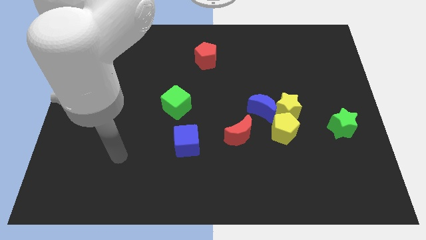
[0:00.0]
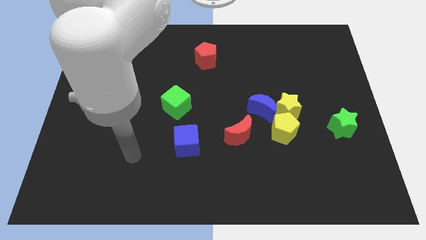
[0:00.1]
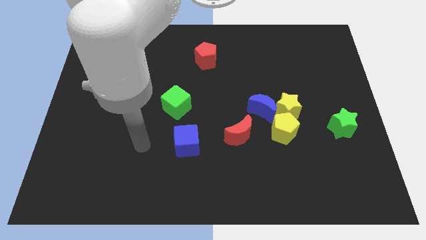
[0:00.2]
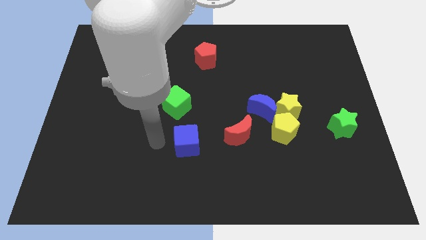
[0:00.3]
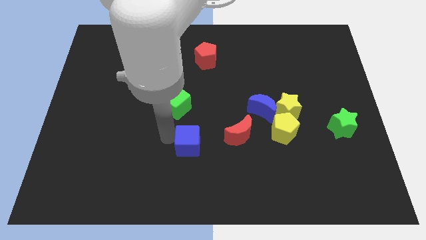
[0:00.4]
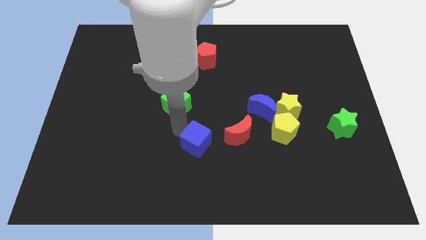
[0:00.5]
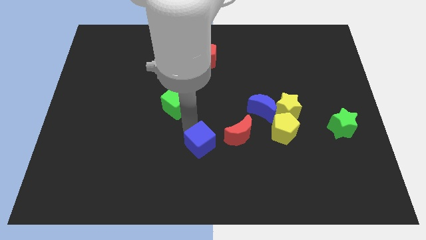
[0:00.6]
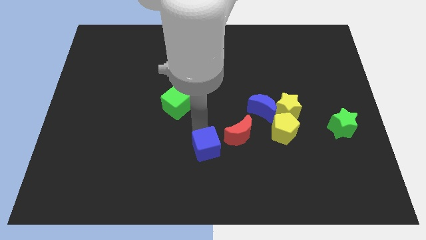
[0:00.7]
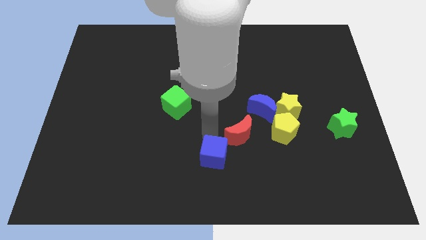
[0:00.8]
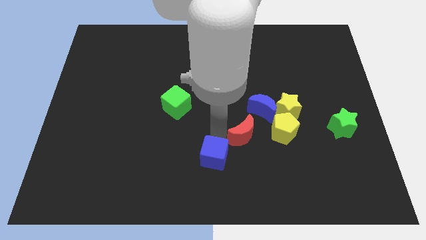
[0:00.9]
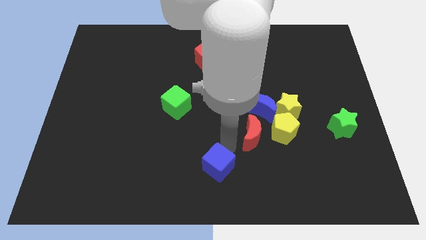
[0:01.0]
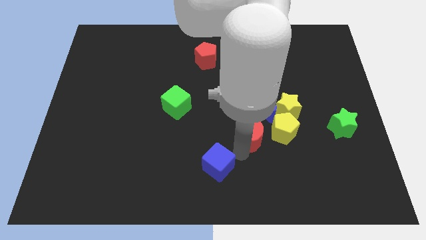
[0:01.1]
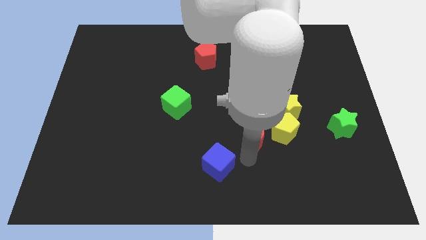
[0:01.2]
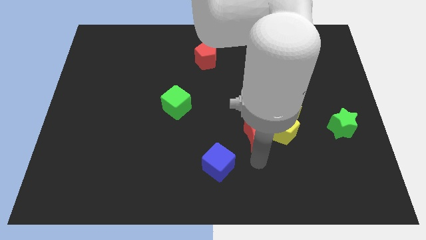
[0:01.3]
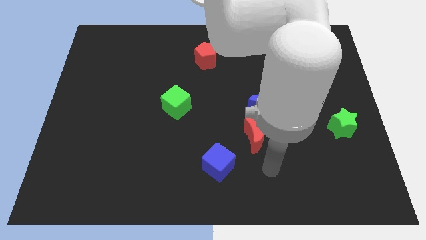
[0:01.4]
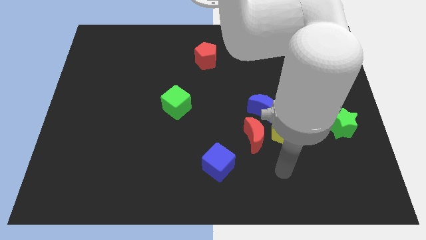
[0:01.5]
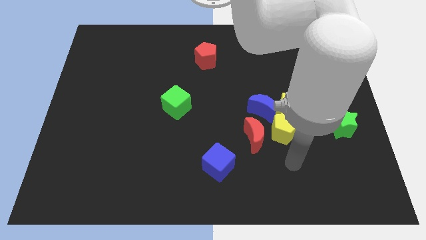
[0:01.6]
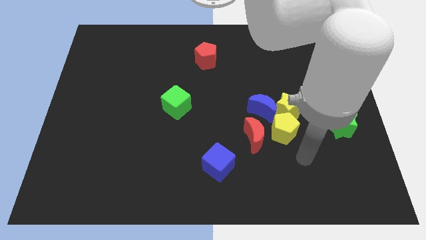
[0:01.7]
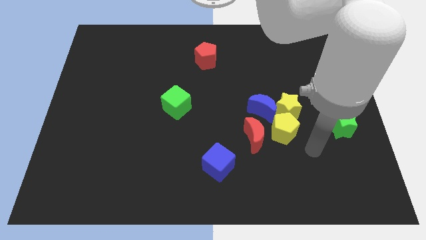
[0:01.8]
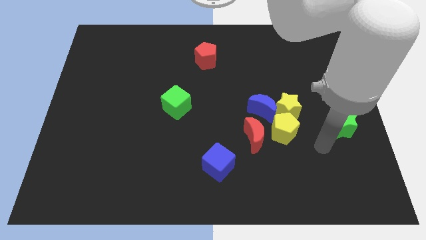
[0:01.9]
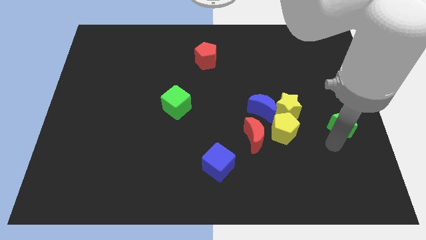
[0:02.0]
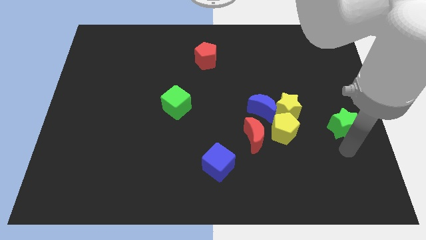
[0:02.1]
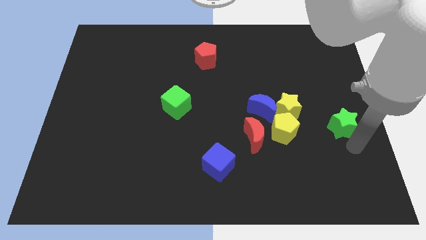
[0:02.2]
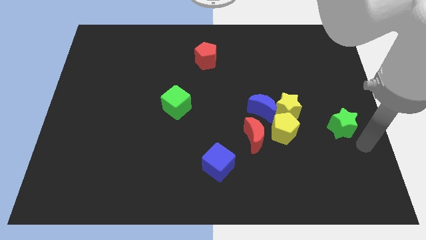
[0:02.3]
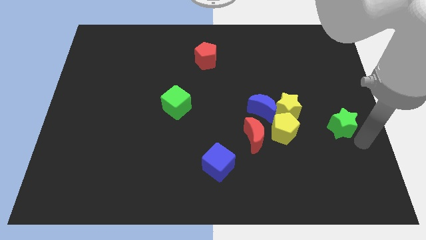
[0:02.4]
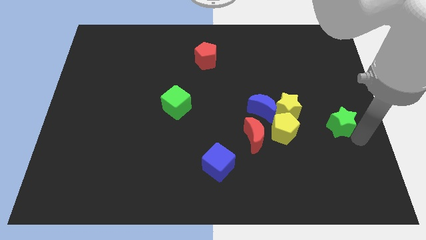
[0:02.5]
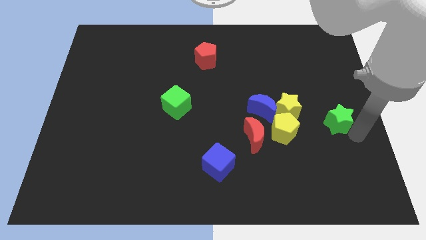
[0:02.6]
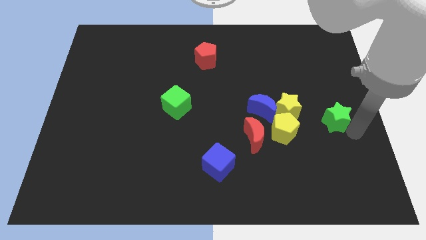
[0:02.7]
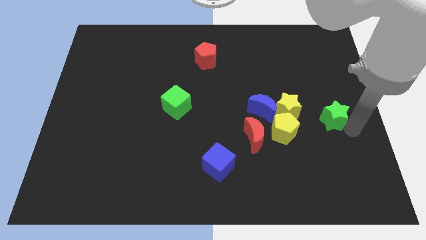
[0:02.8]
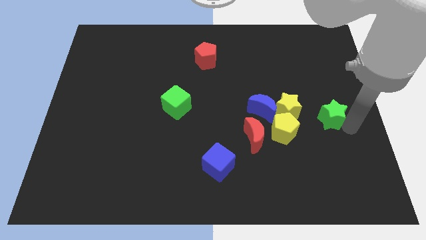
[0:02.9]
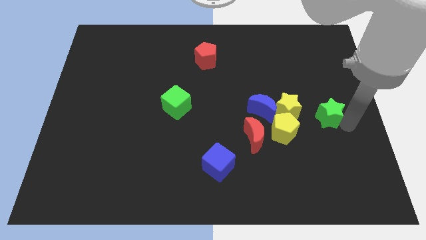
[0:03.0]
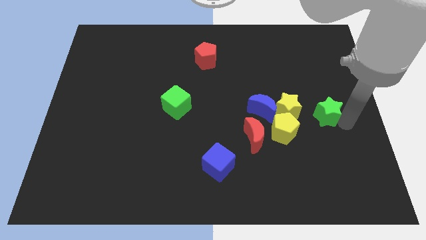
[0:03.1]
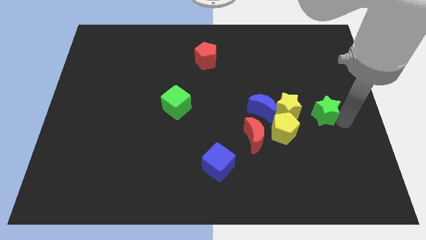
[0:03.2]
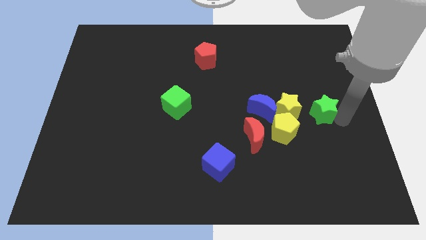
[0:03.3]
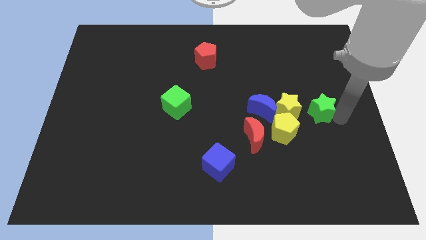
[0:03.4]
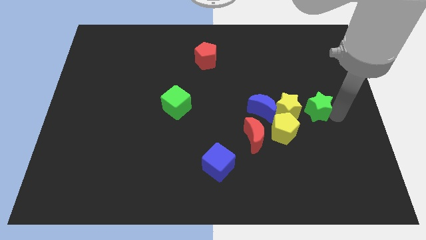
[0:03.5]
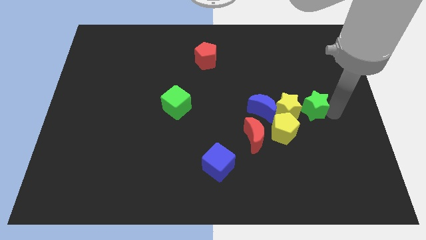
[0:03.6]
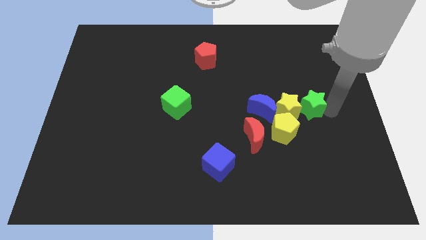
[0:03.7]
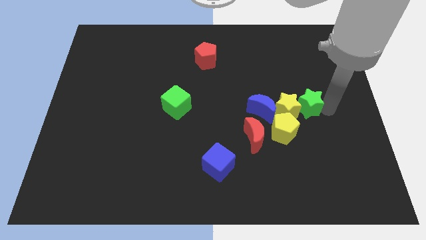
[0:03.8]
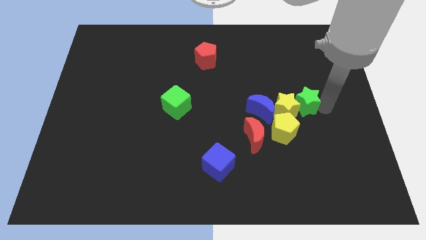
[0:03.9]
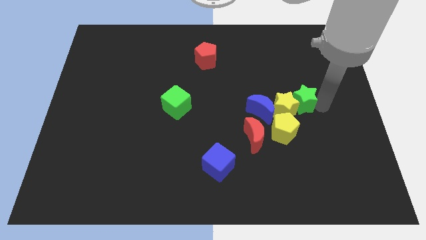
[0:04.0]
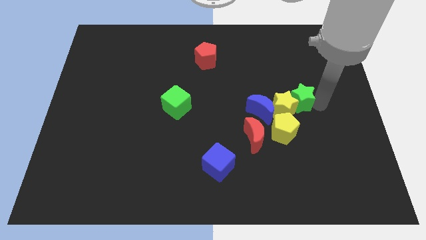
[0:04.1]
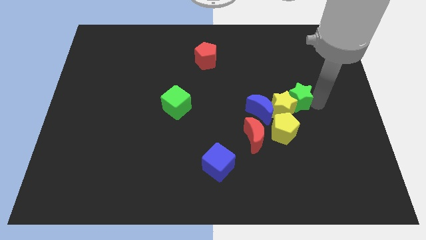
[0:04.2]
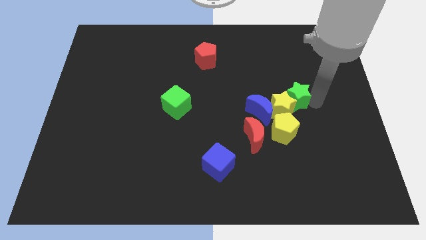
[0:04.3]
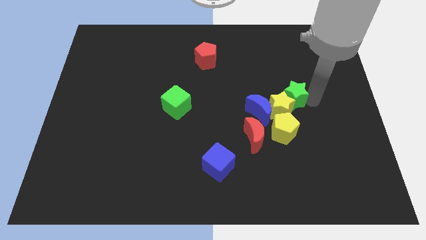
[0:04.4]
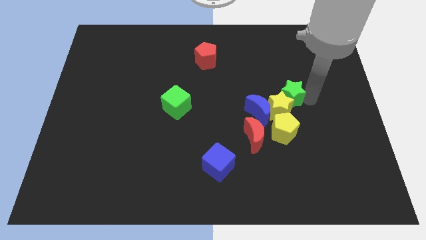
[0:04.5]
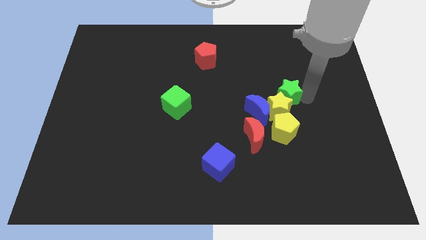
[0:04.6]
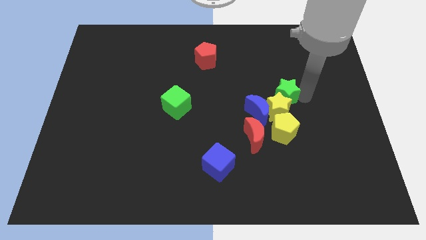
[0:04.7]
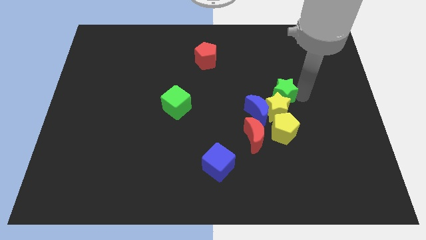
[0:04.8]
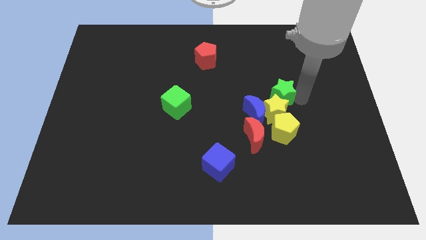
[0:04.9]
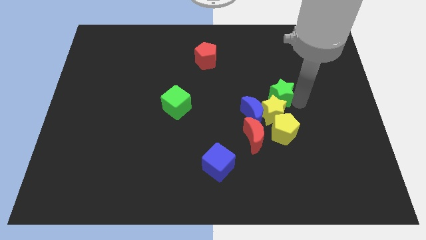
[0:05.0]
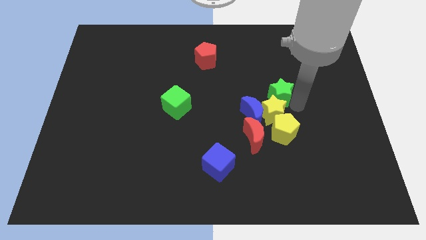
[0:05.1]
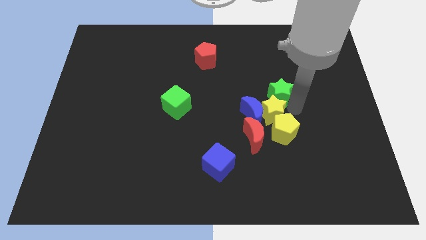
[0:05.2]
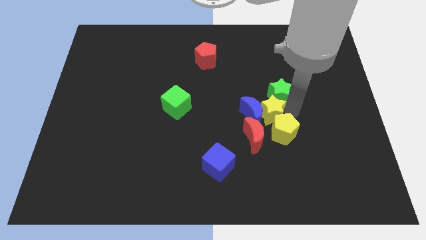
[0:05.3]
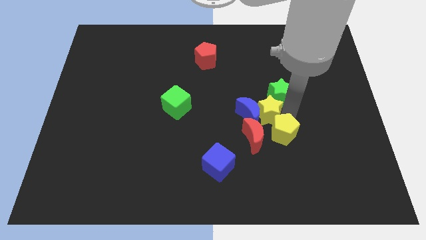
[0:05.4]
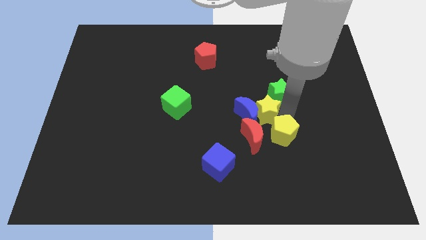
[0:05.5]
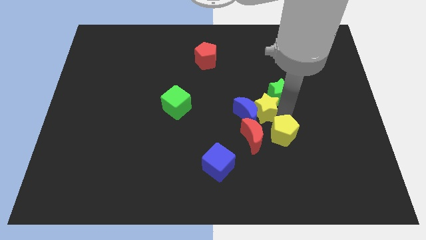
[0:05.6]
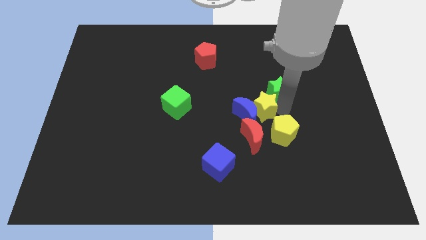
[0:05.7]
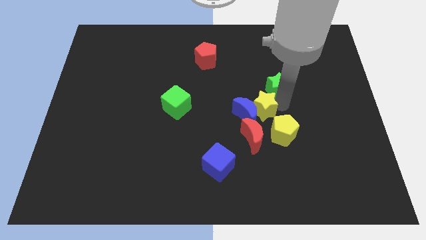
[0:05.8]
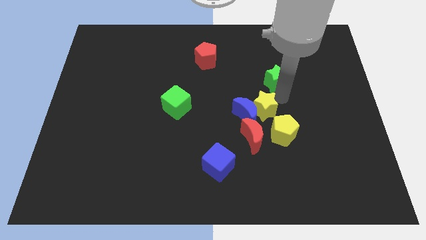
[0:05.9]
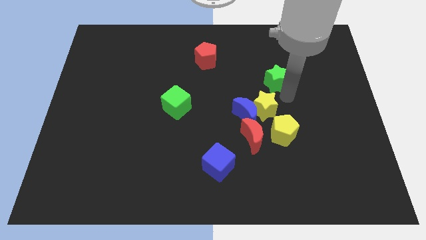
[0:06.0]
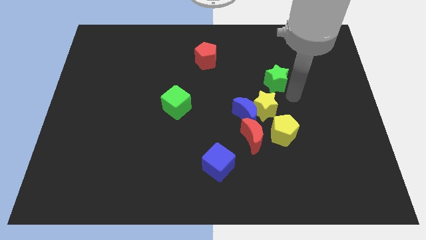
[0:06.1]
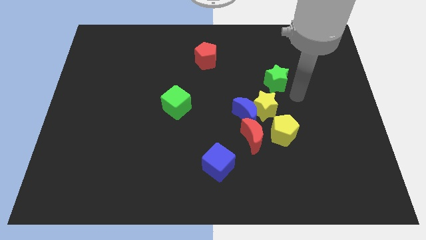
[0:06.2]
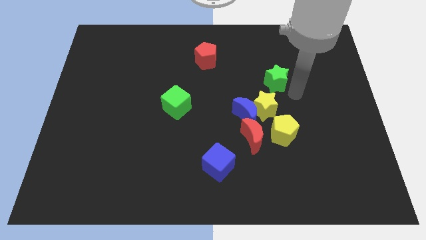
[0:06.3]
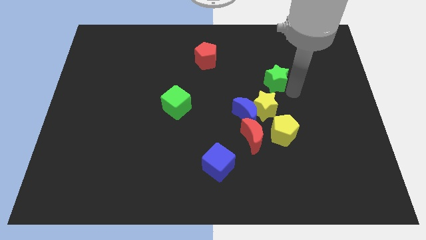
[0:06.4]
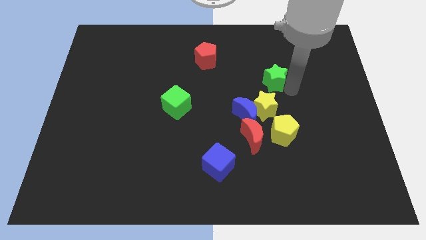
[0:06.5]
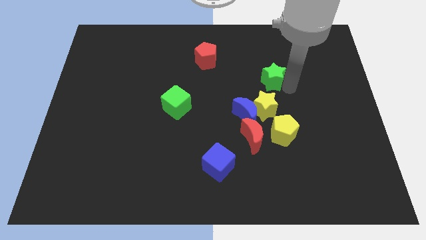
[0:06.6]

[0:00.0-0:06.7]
slide the green star upwards and left diagonally

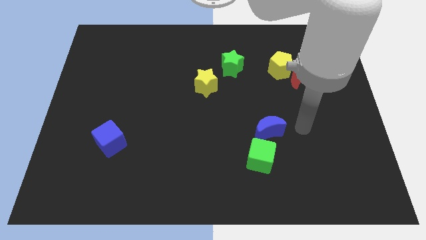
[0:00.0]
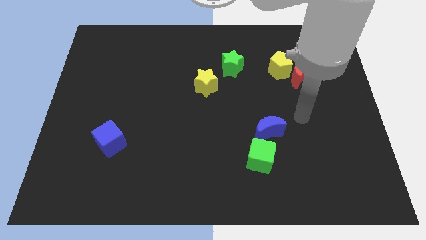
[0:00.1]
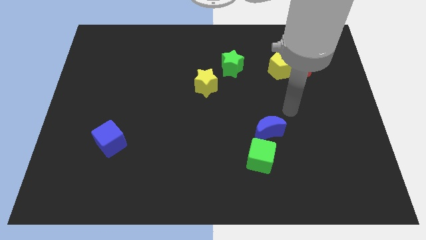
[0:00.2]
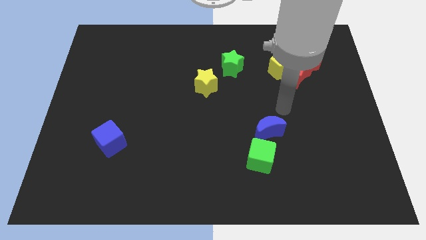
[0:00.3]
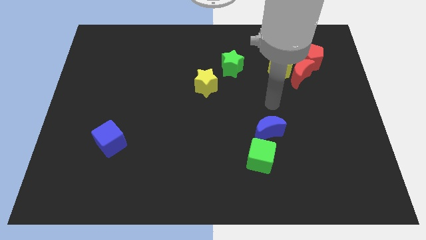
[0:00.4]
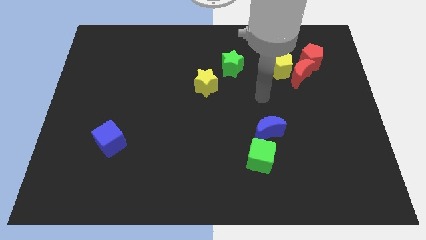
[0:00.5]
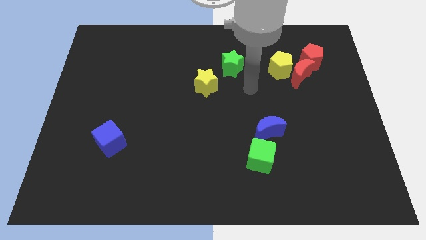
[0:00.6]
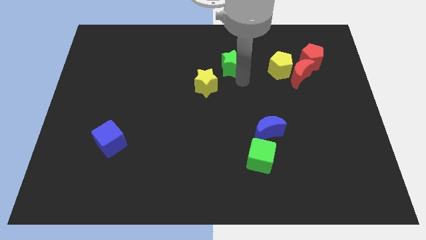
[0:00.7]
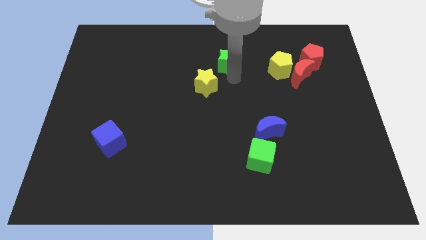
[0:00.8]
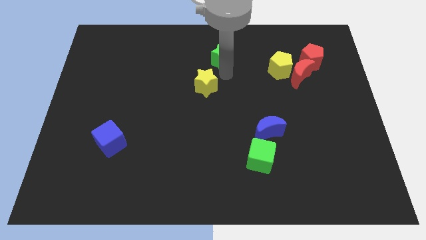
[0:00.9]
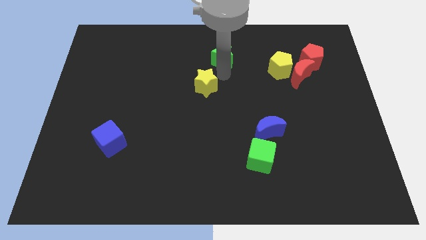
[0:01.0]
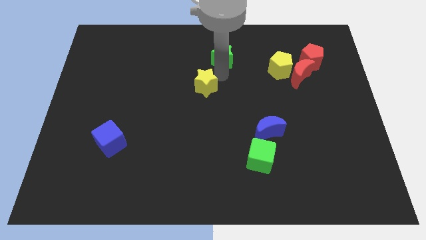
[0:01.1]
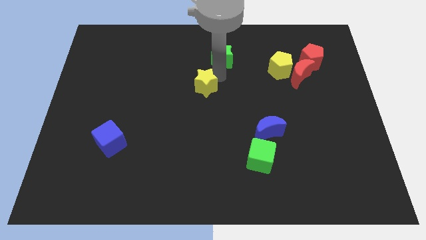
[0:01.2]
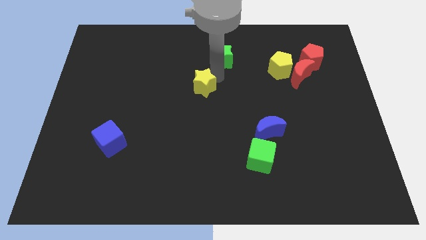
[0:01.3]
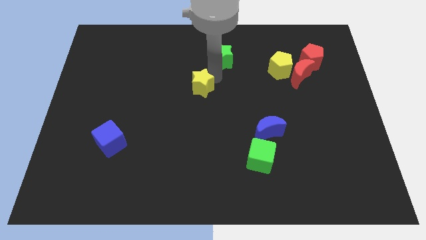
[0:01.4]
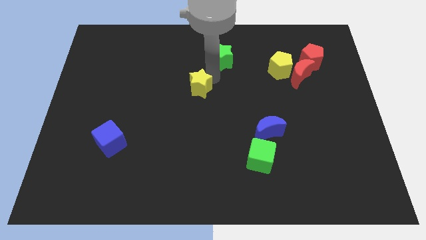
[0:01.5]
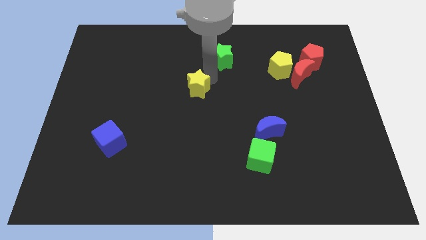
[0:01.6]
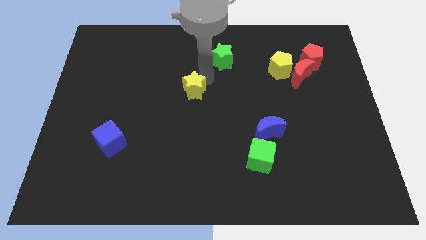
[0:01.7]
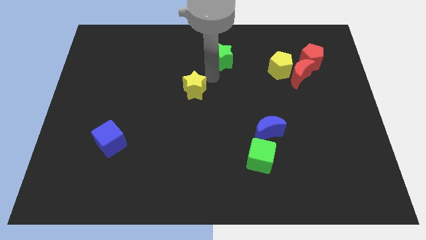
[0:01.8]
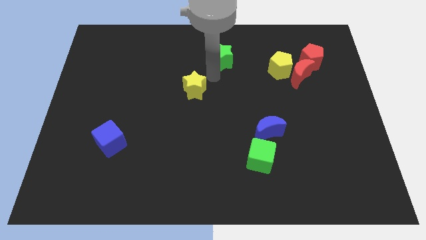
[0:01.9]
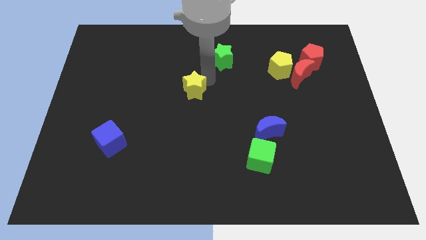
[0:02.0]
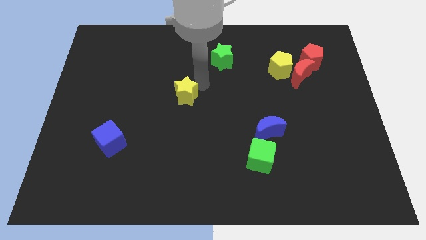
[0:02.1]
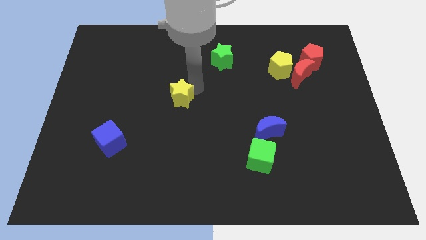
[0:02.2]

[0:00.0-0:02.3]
move the yellow star down and then to the left a little bit
